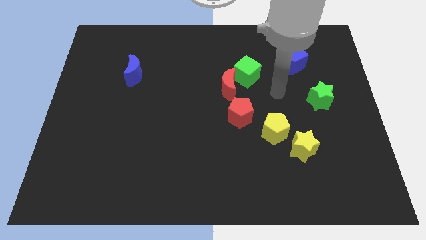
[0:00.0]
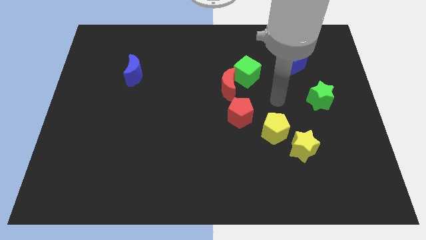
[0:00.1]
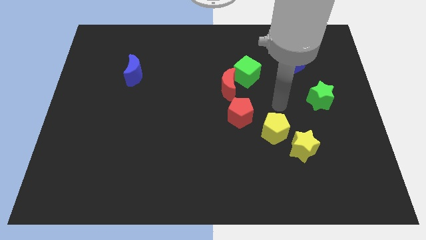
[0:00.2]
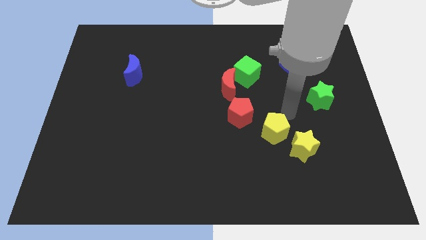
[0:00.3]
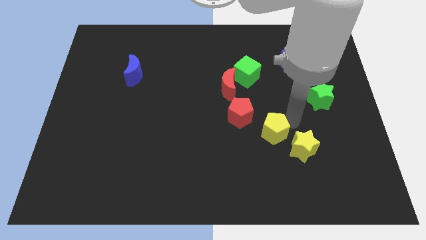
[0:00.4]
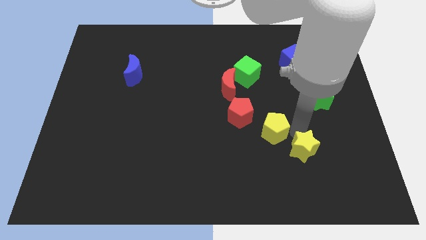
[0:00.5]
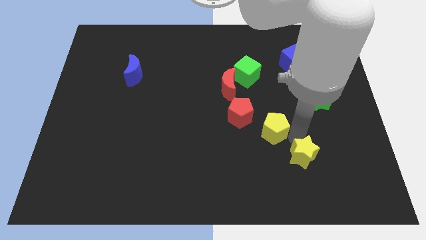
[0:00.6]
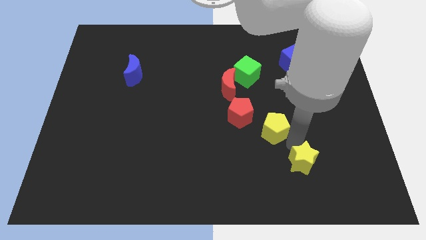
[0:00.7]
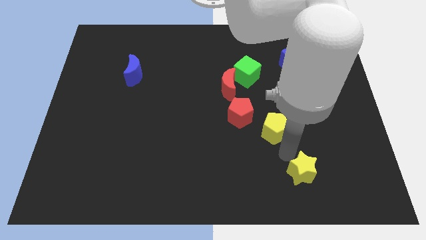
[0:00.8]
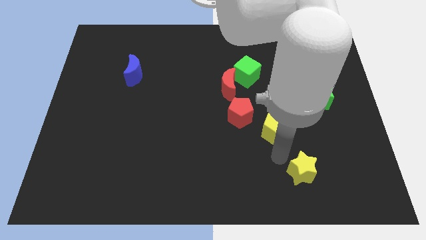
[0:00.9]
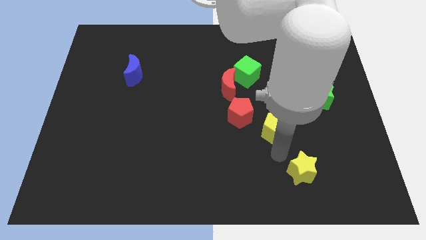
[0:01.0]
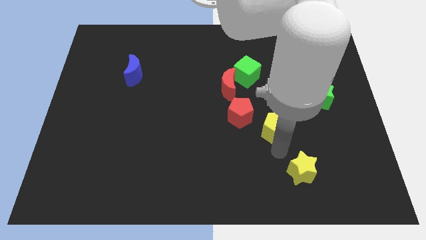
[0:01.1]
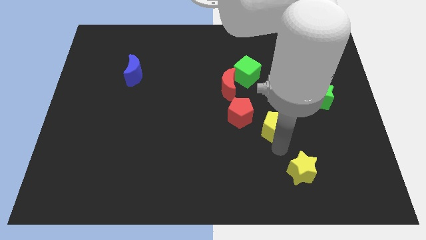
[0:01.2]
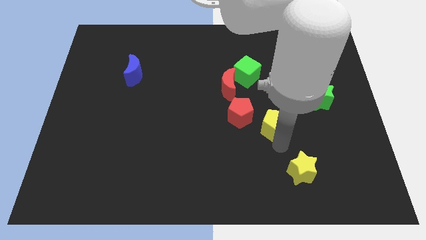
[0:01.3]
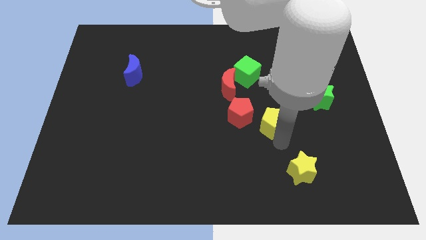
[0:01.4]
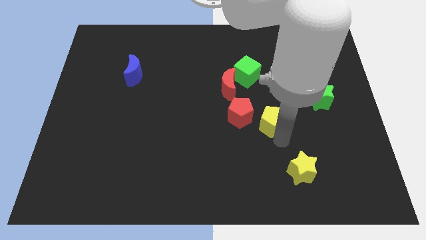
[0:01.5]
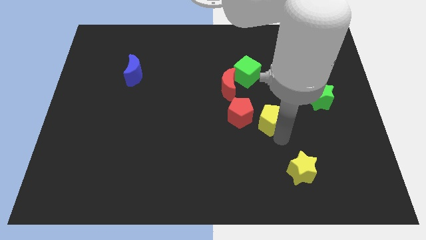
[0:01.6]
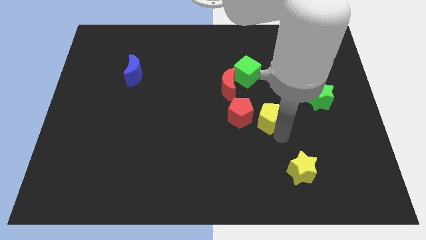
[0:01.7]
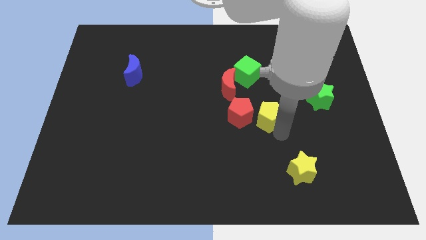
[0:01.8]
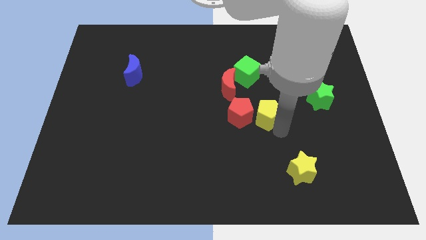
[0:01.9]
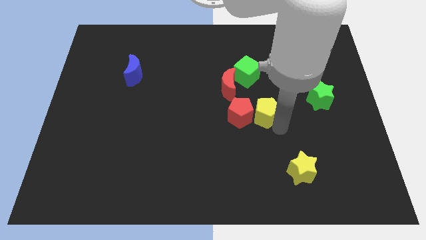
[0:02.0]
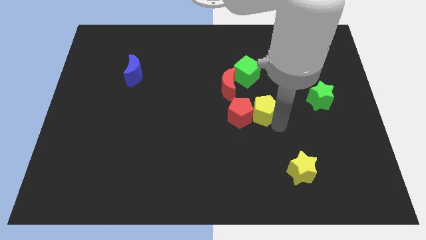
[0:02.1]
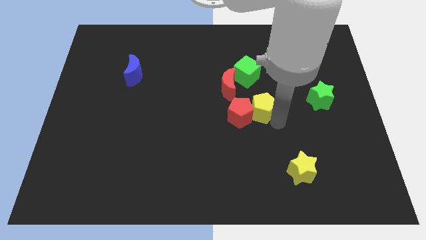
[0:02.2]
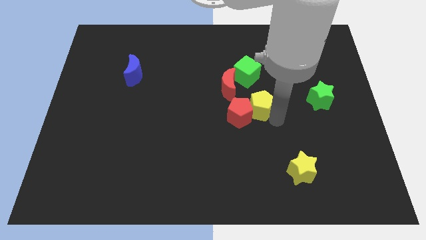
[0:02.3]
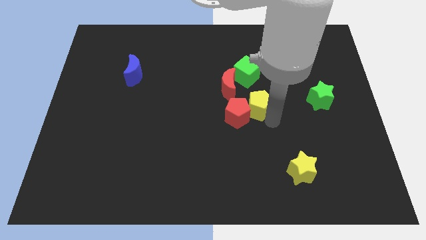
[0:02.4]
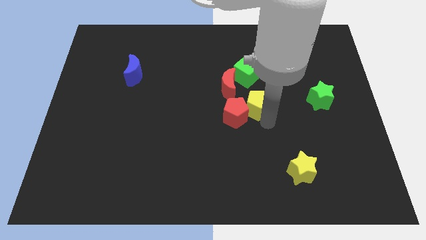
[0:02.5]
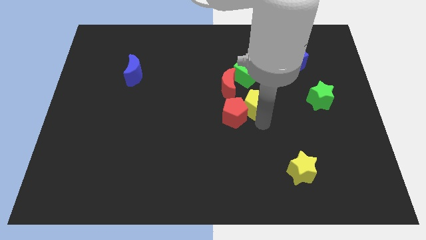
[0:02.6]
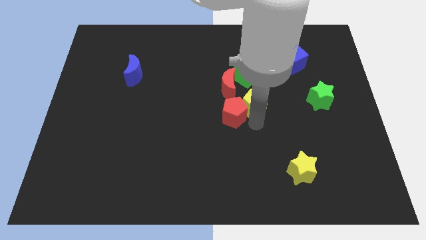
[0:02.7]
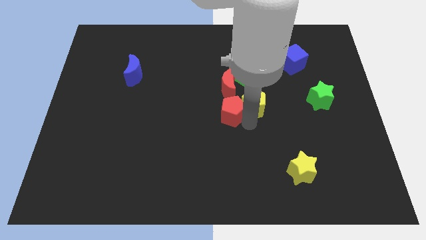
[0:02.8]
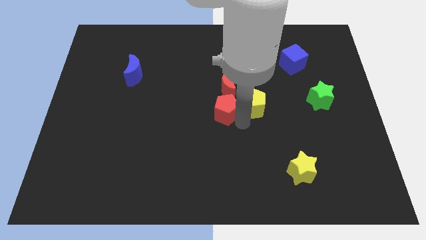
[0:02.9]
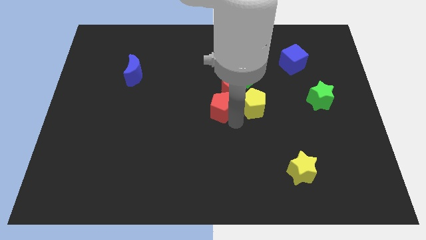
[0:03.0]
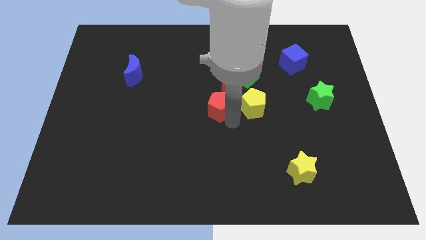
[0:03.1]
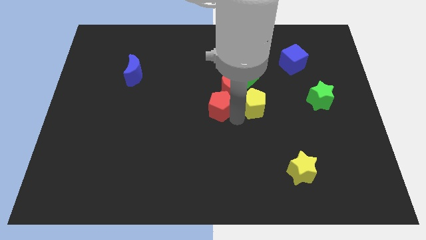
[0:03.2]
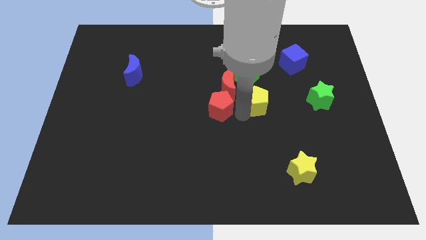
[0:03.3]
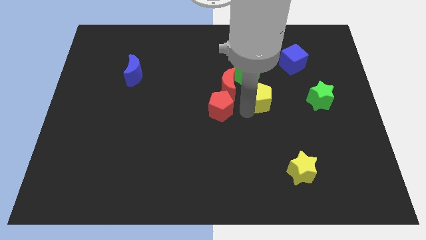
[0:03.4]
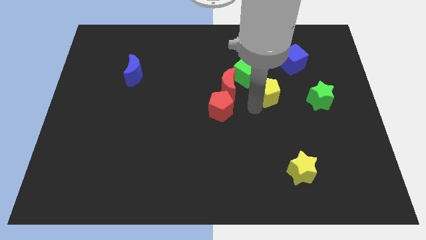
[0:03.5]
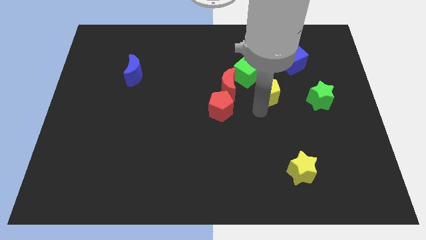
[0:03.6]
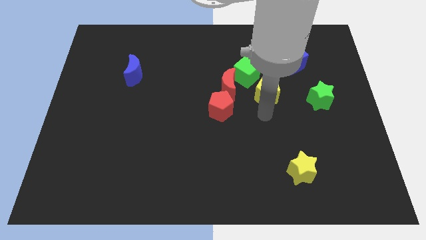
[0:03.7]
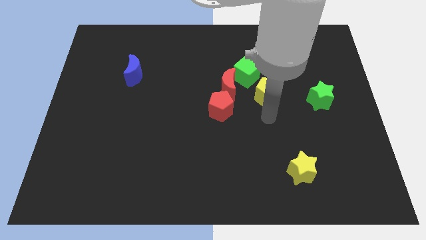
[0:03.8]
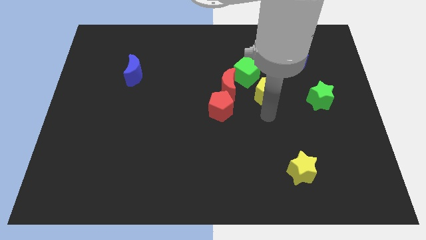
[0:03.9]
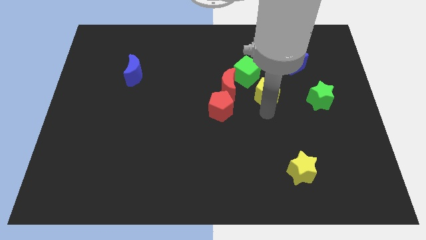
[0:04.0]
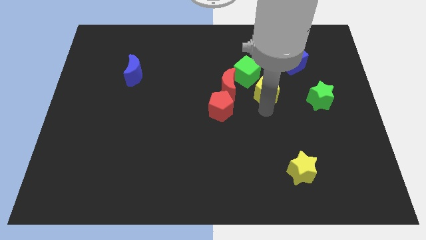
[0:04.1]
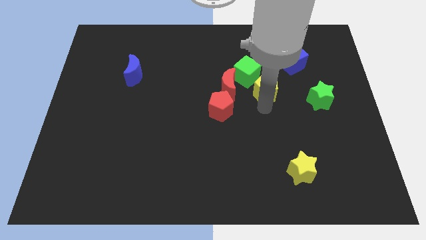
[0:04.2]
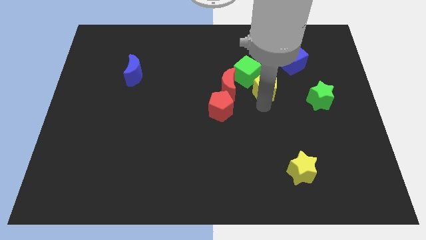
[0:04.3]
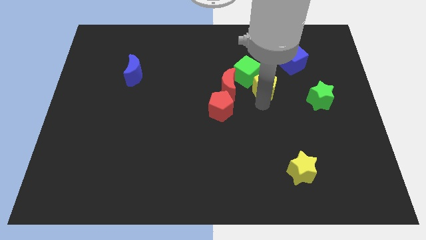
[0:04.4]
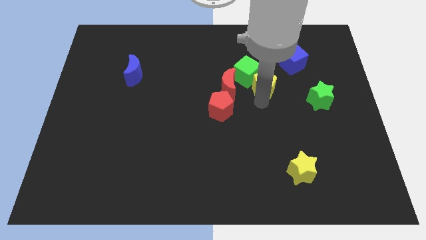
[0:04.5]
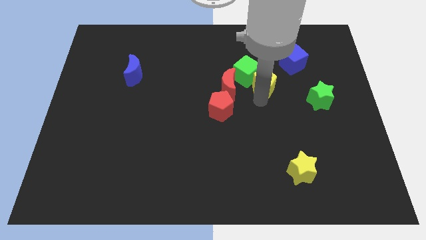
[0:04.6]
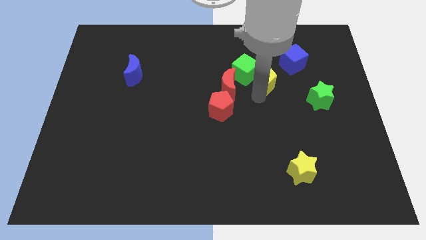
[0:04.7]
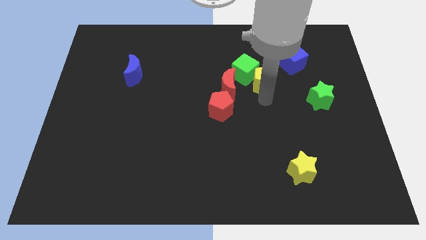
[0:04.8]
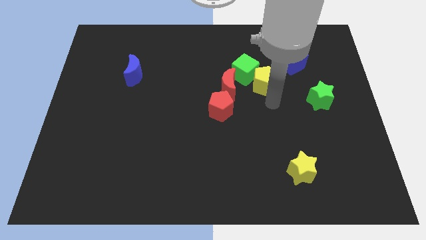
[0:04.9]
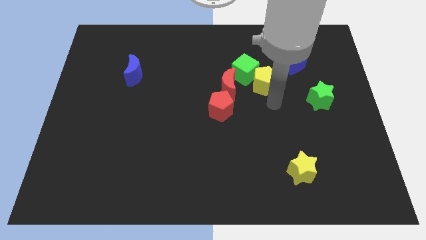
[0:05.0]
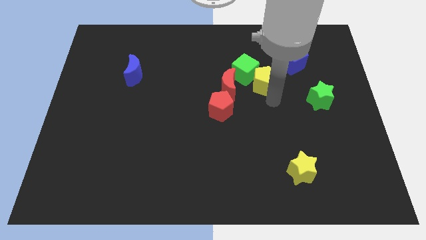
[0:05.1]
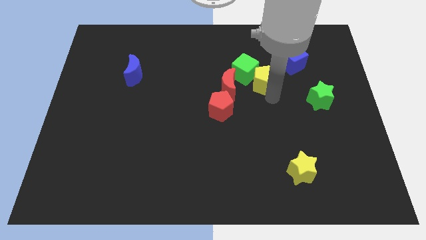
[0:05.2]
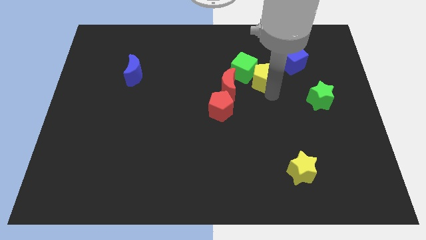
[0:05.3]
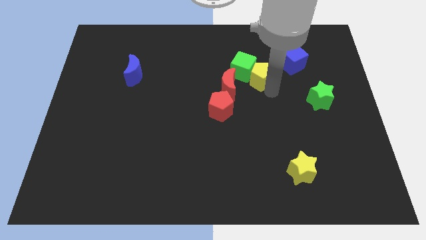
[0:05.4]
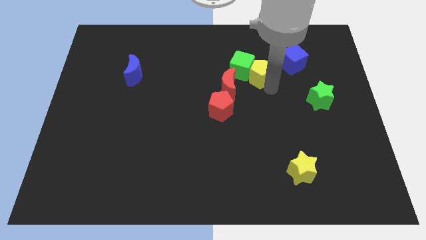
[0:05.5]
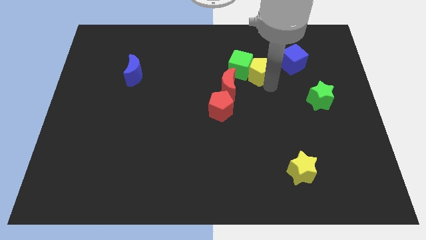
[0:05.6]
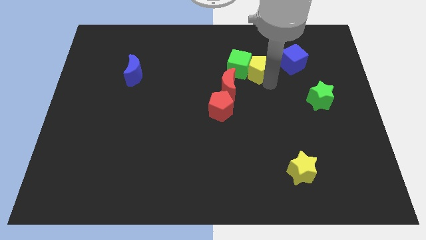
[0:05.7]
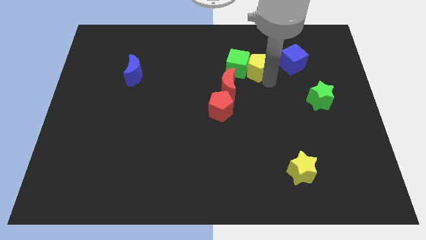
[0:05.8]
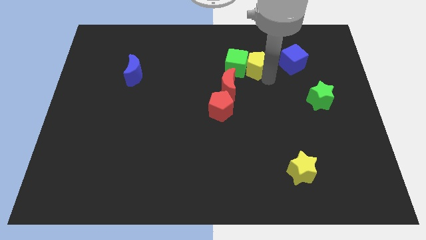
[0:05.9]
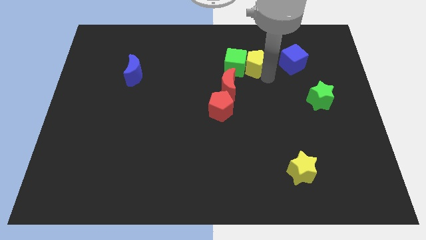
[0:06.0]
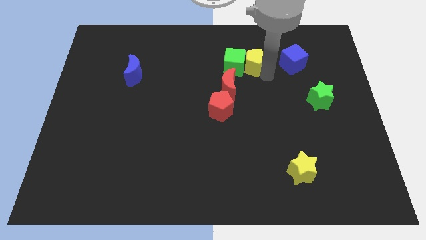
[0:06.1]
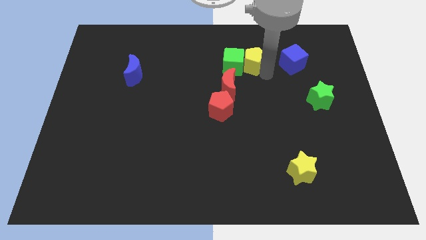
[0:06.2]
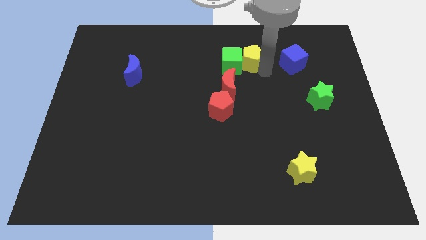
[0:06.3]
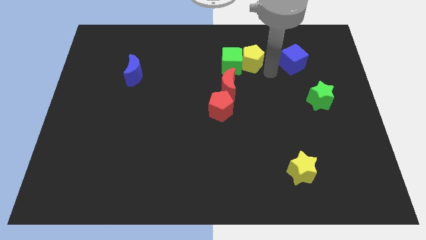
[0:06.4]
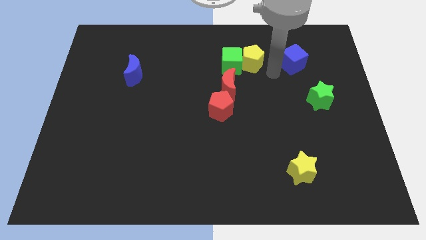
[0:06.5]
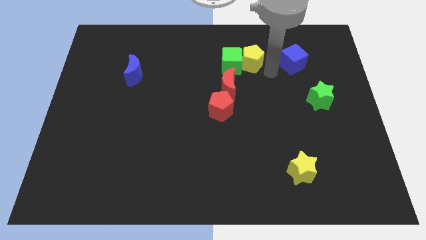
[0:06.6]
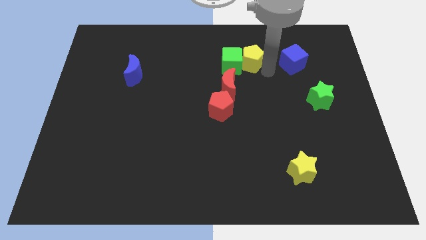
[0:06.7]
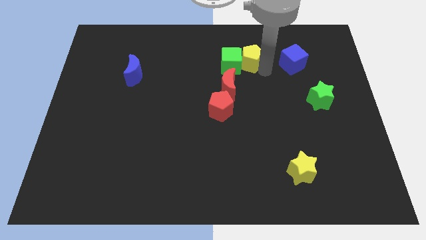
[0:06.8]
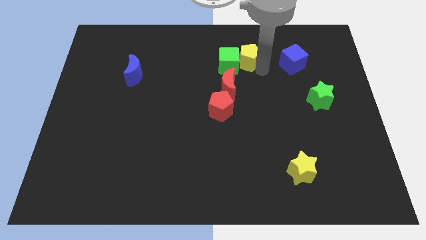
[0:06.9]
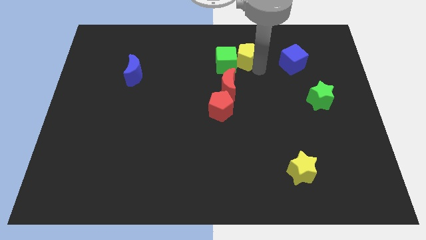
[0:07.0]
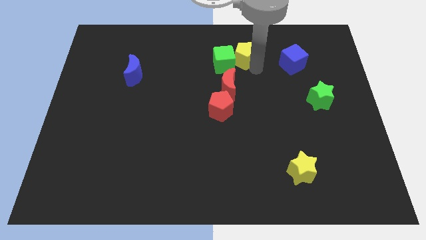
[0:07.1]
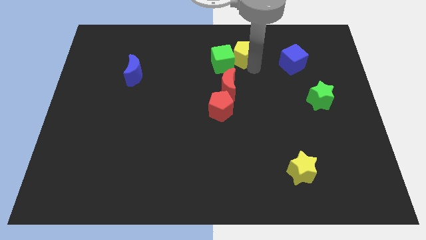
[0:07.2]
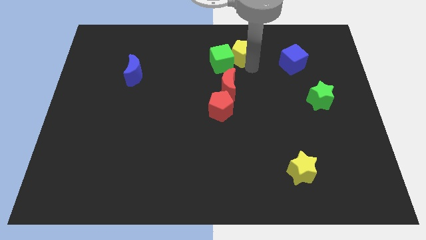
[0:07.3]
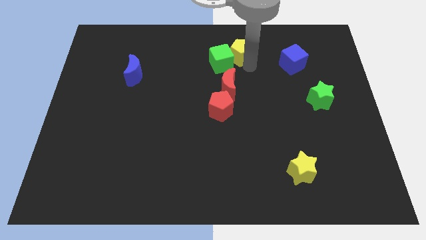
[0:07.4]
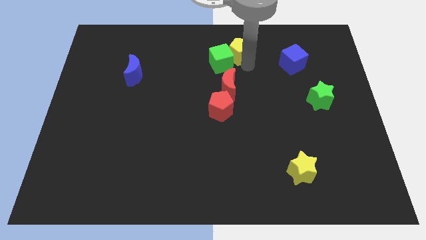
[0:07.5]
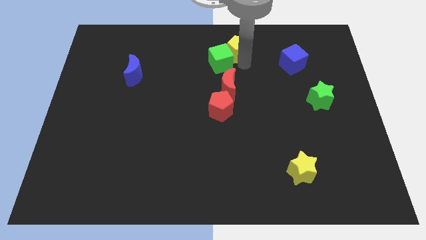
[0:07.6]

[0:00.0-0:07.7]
push the yellow pentagon to the top side

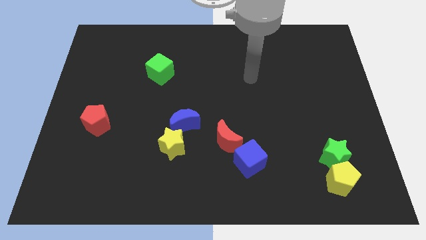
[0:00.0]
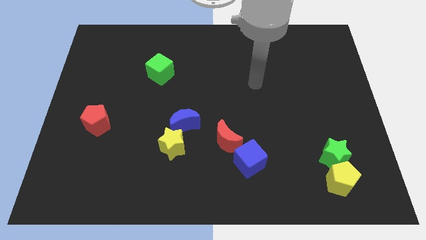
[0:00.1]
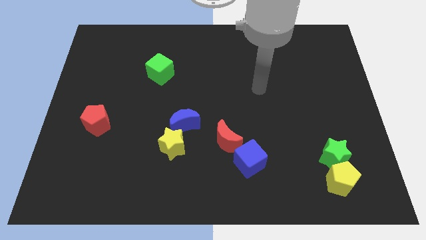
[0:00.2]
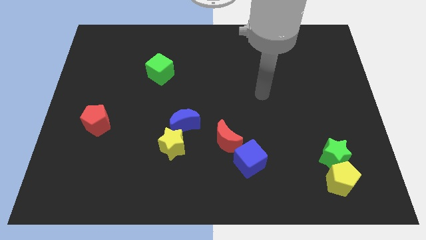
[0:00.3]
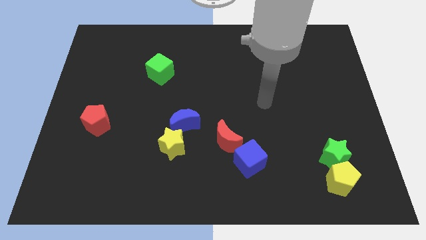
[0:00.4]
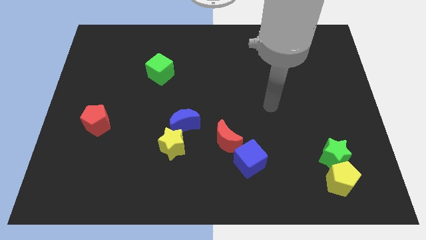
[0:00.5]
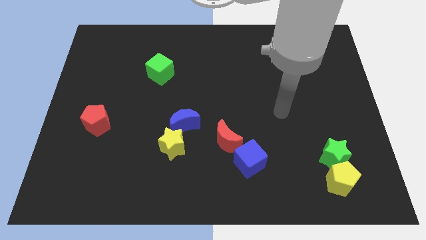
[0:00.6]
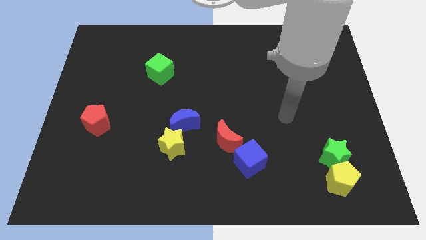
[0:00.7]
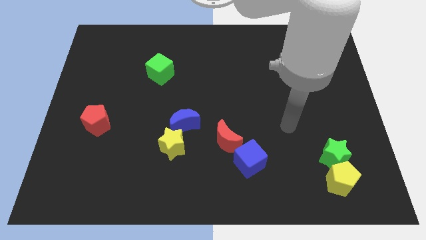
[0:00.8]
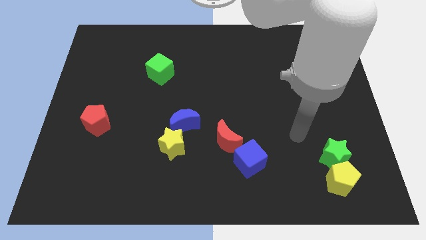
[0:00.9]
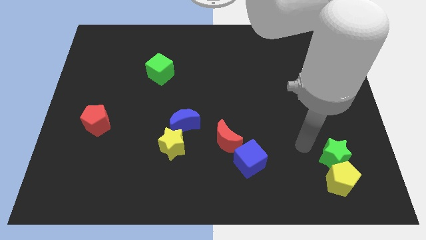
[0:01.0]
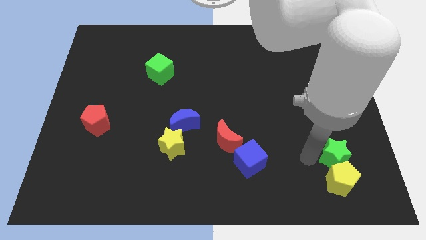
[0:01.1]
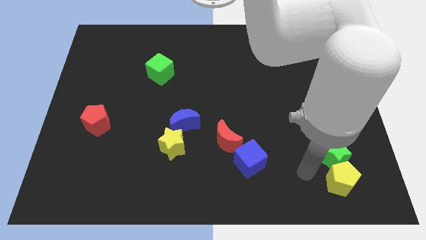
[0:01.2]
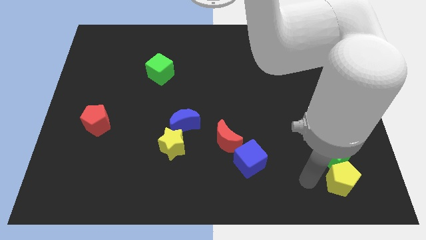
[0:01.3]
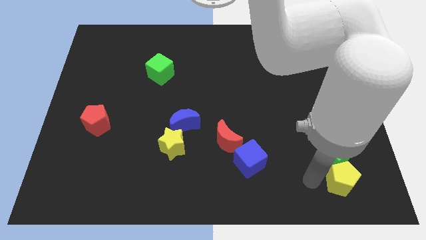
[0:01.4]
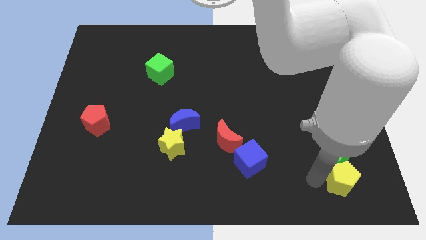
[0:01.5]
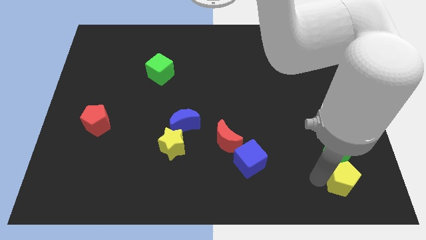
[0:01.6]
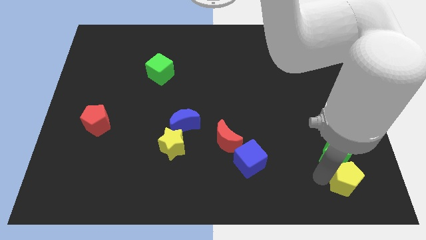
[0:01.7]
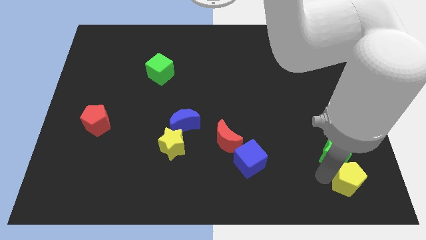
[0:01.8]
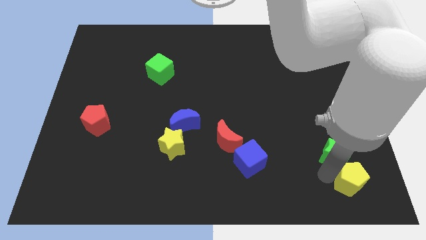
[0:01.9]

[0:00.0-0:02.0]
slide the yellow pentagon to the bottom right
